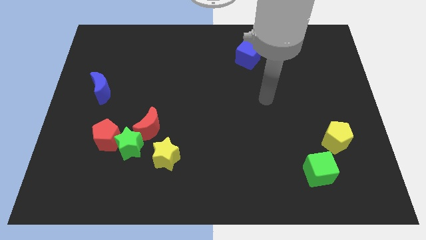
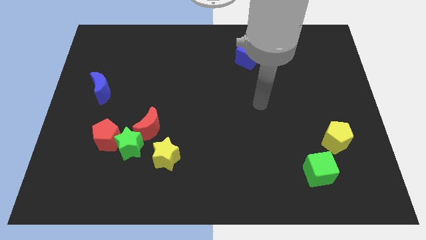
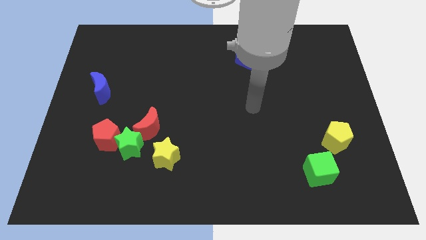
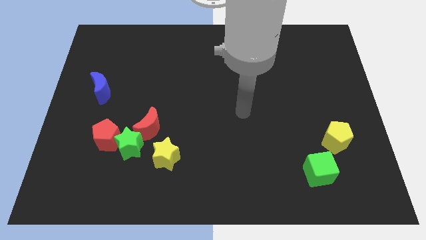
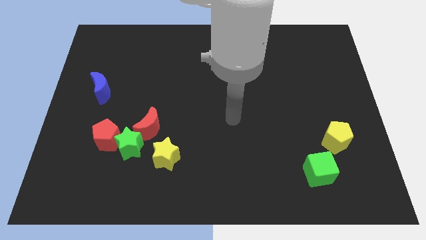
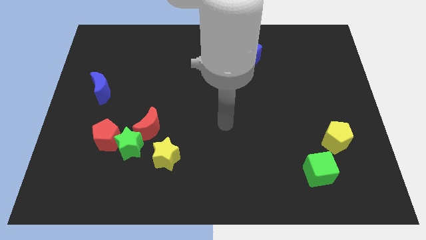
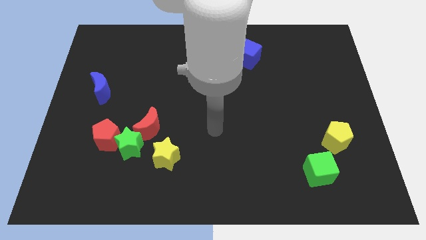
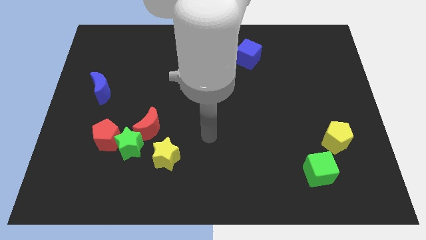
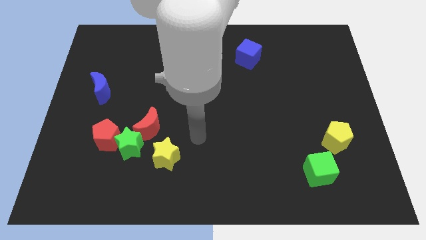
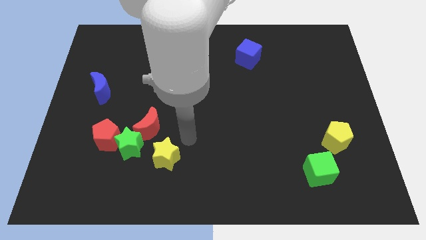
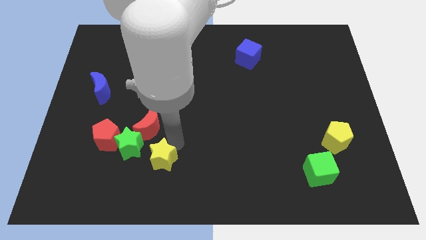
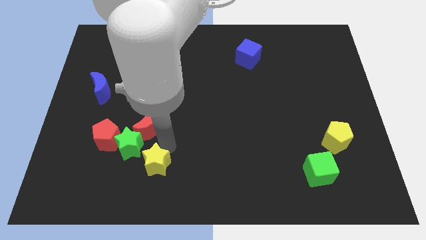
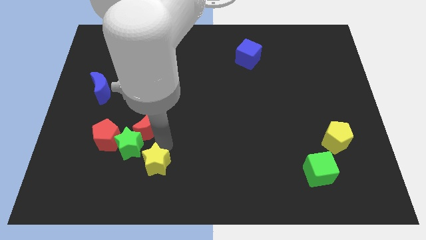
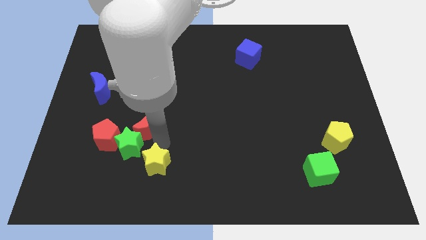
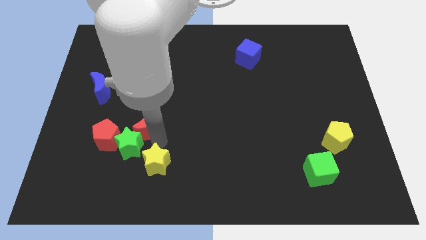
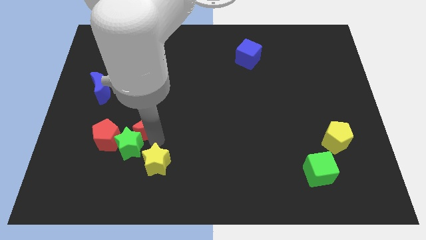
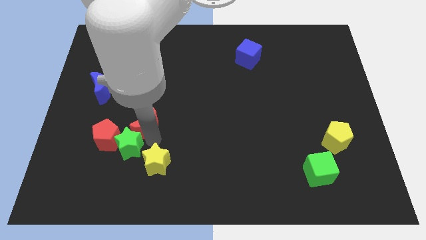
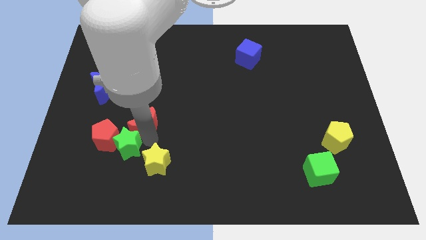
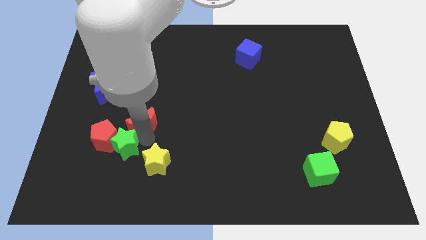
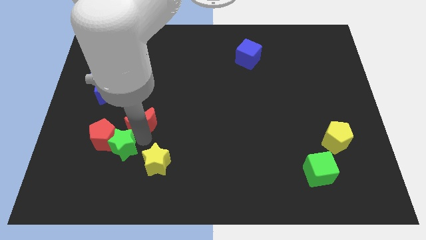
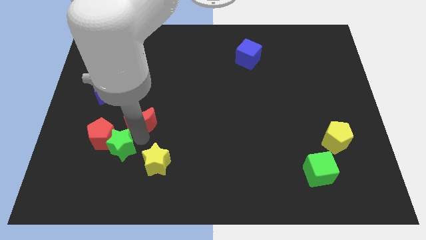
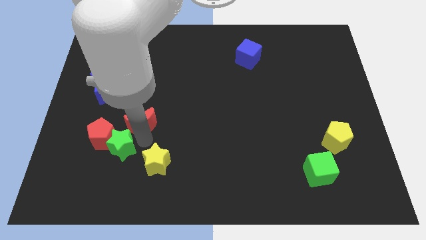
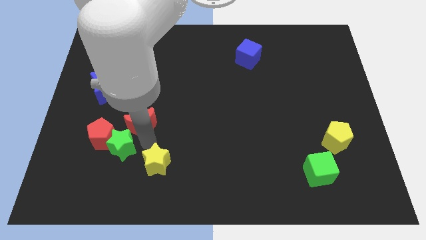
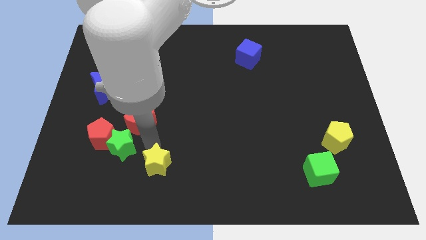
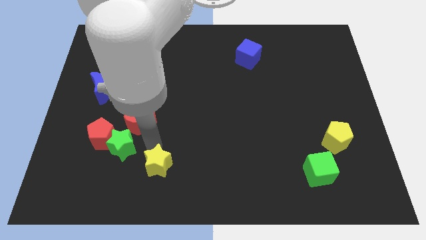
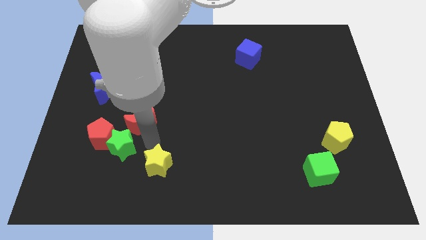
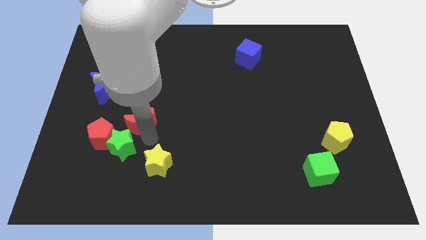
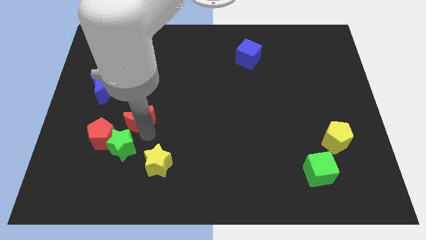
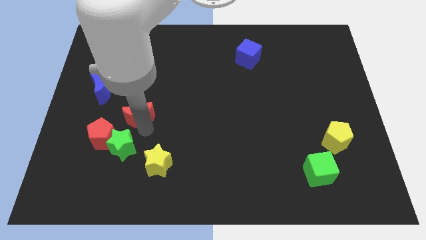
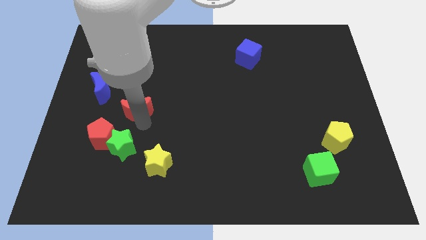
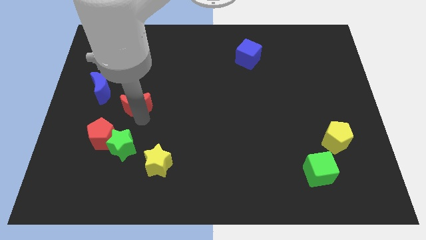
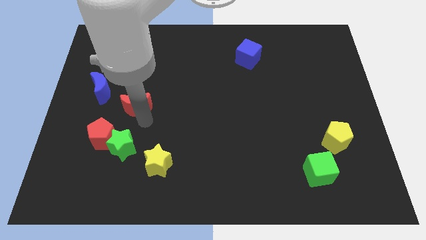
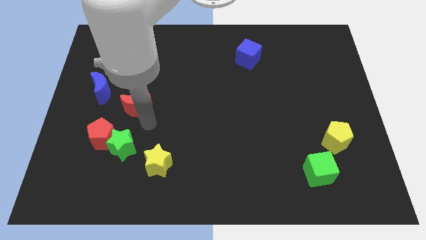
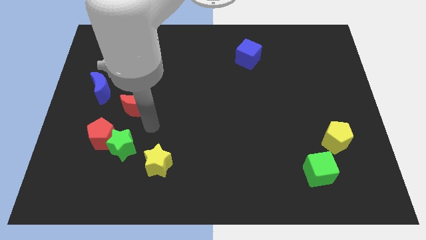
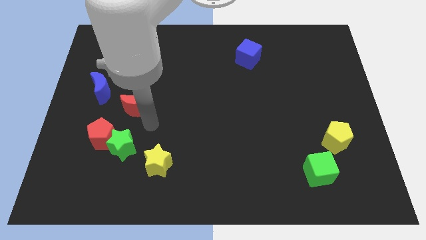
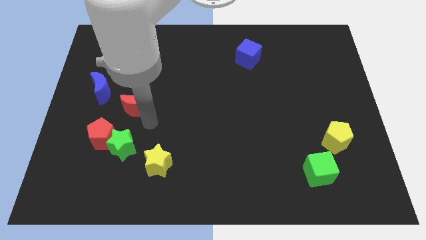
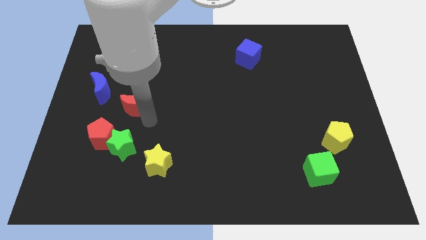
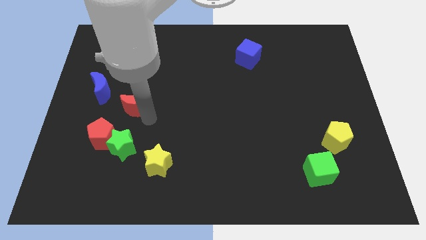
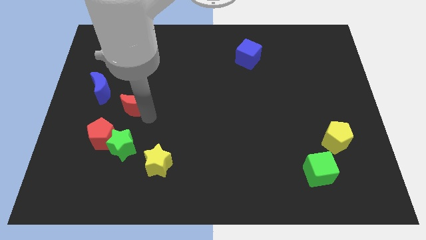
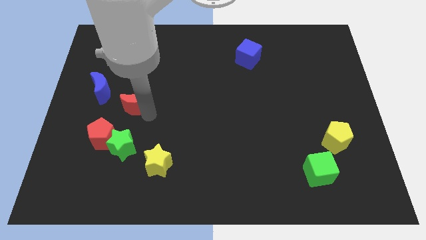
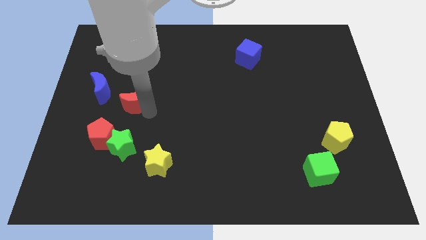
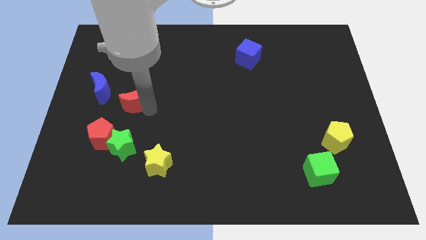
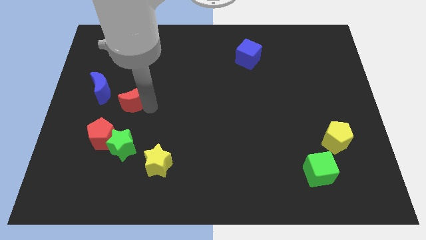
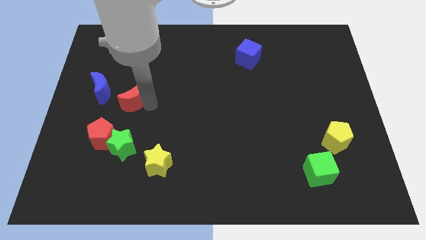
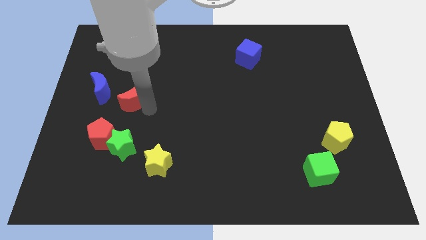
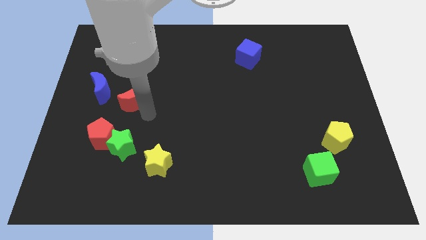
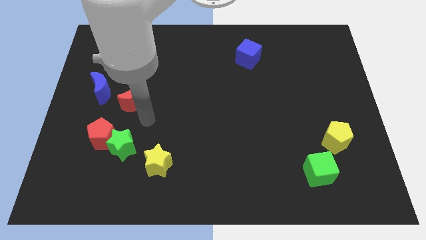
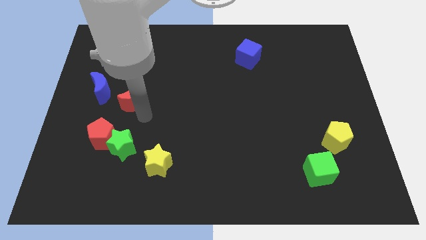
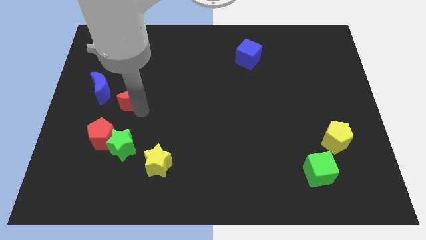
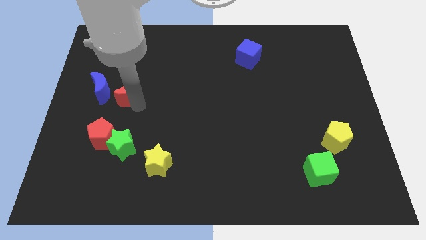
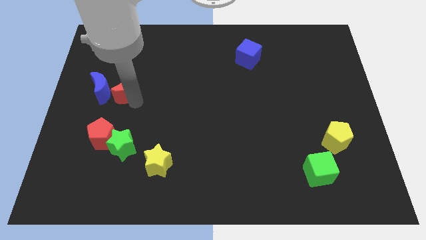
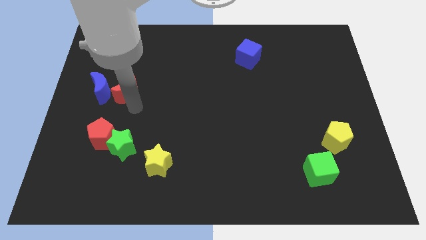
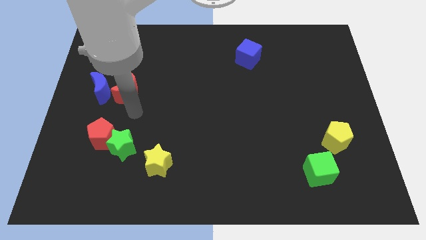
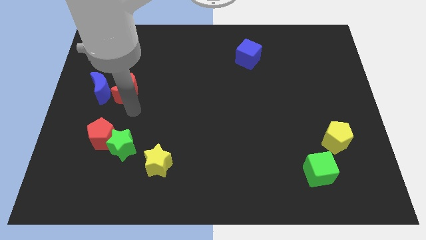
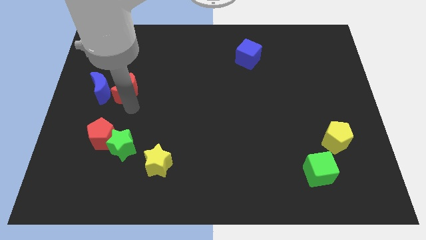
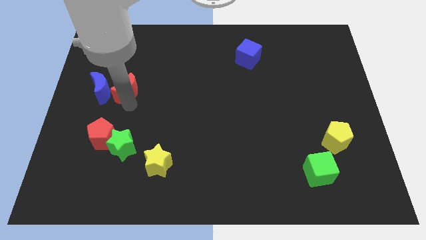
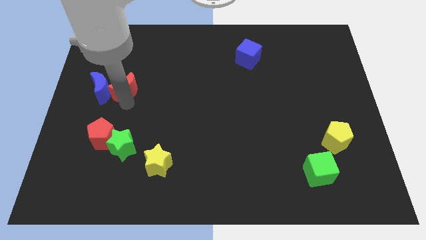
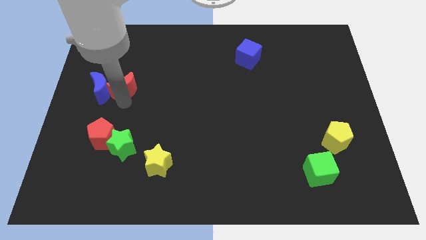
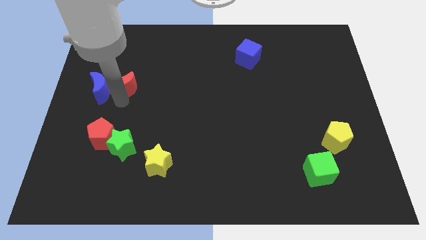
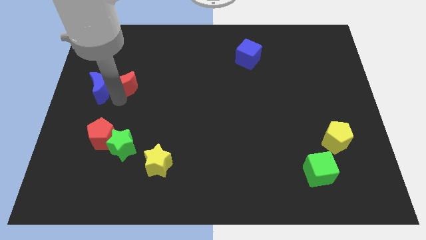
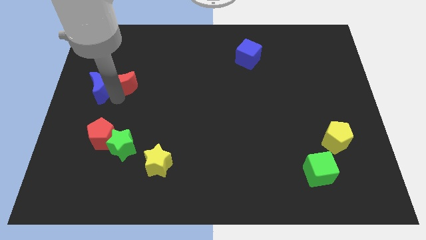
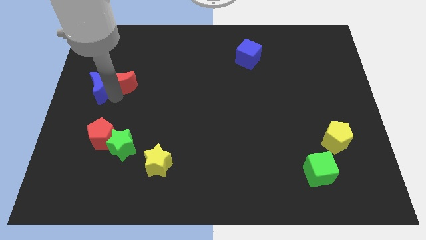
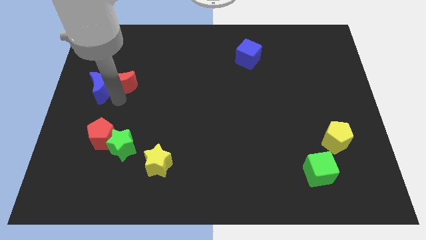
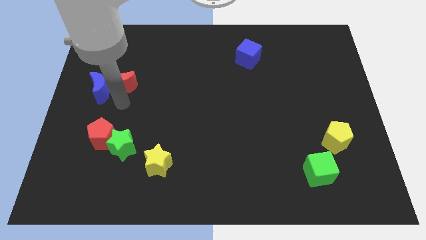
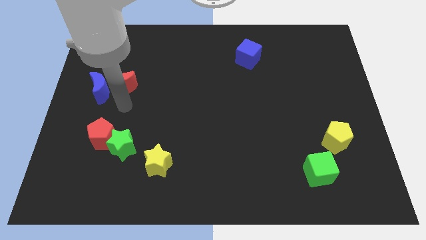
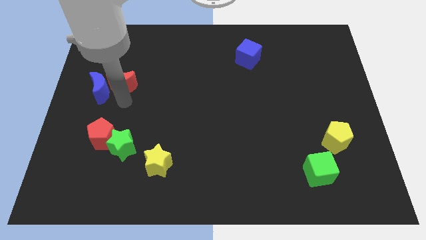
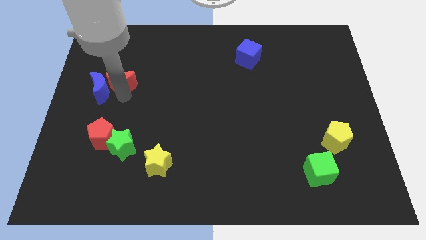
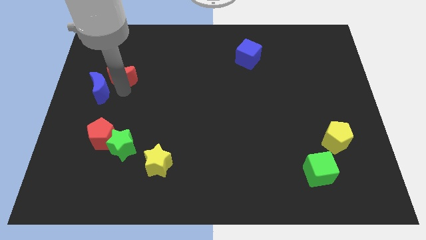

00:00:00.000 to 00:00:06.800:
push the red moon above the blue moon

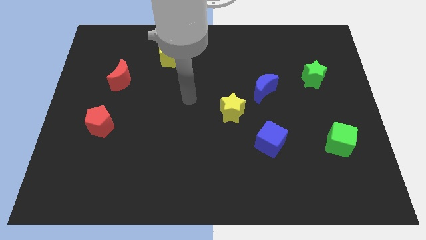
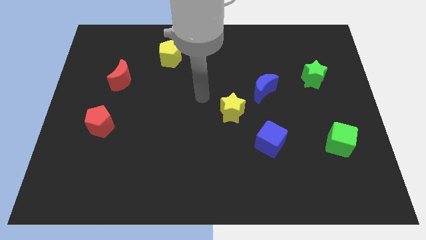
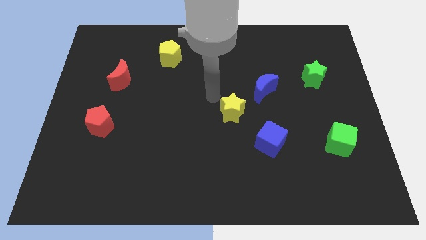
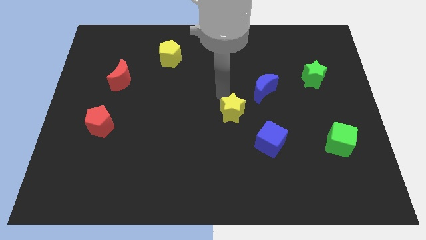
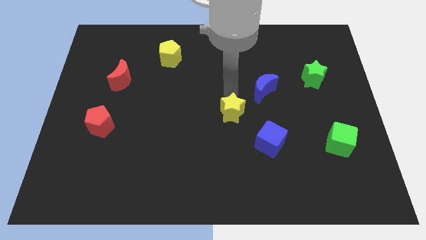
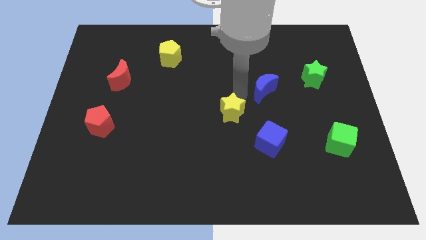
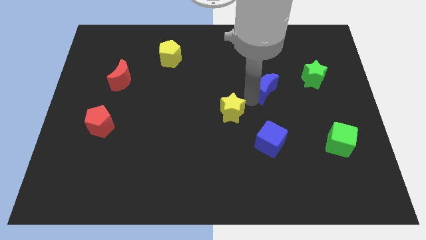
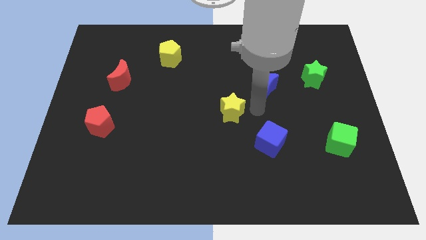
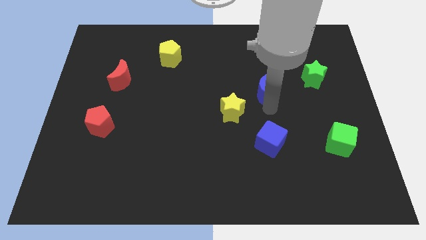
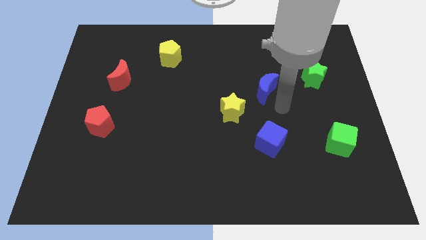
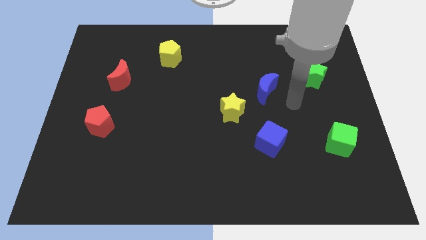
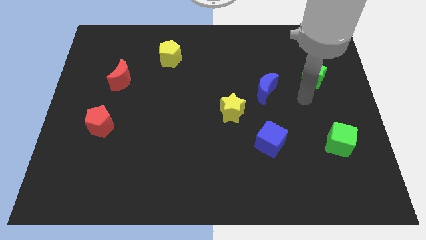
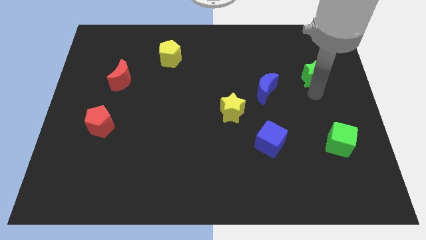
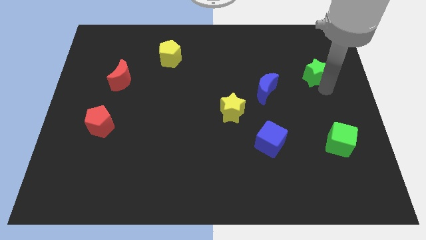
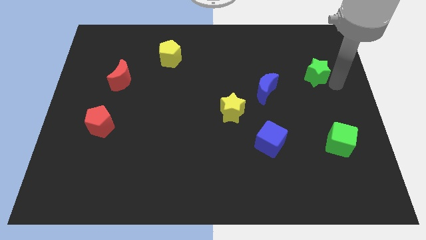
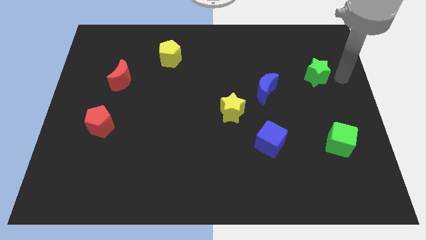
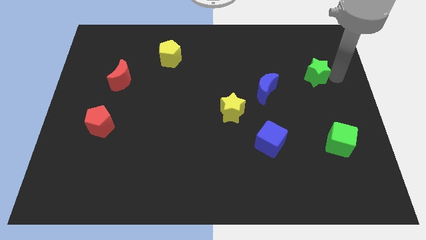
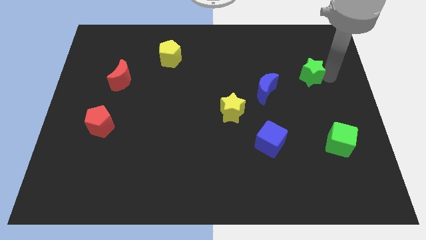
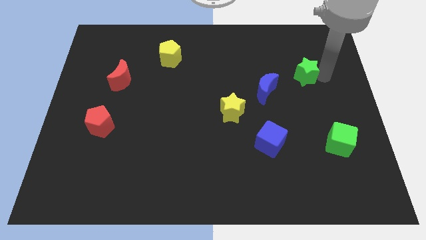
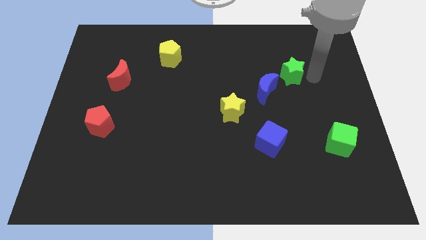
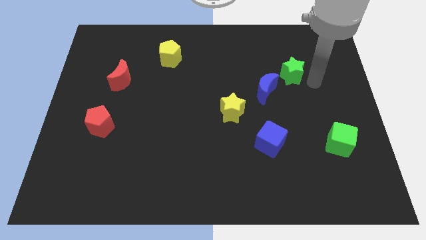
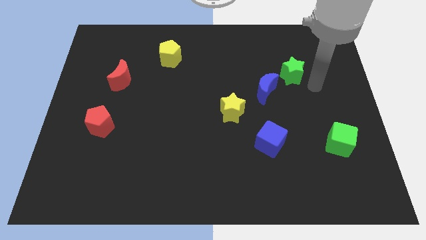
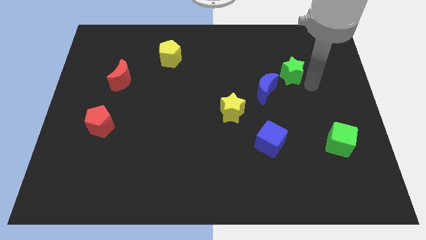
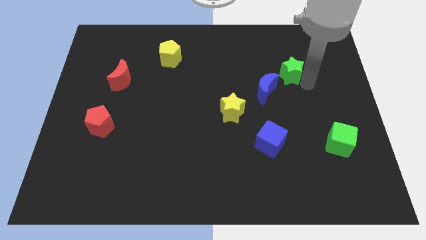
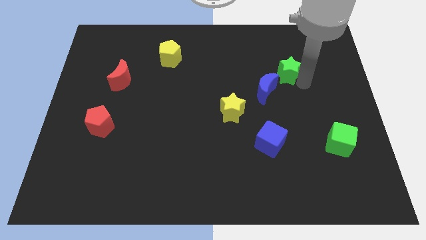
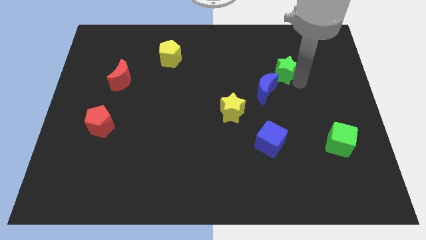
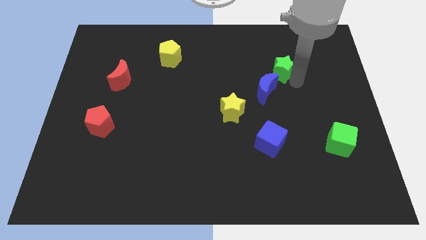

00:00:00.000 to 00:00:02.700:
put the green star above the blue moon
